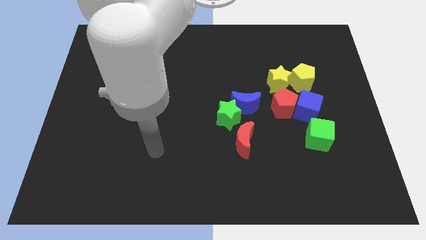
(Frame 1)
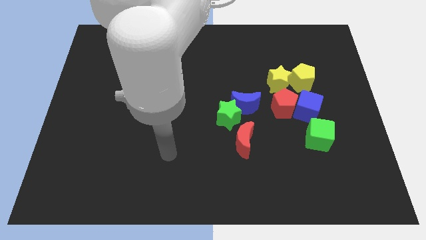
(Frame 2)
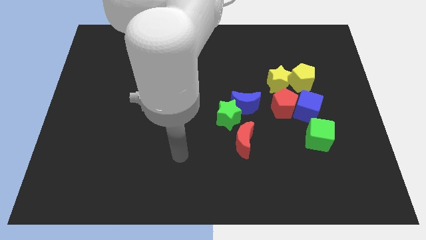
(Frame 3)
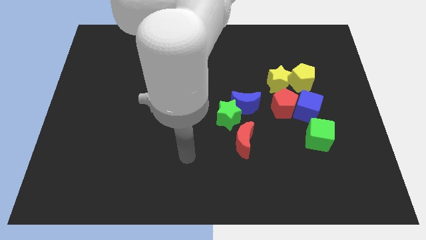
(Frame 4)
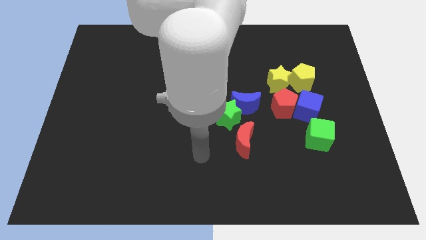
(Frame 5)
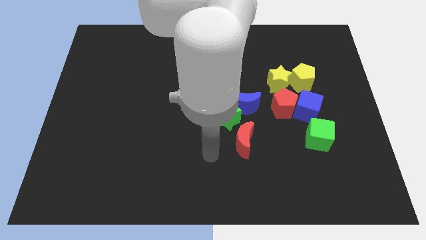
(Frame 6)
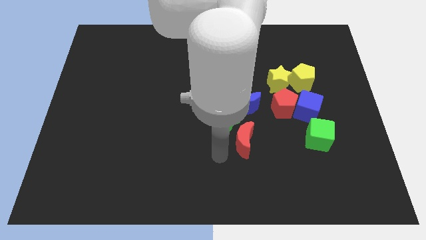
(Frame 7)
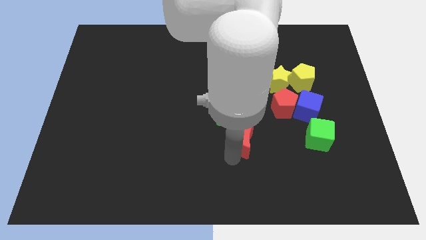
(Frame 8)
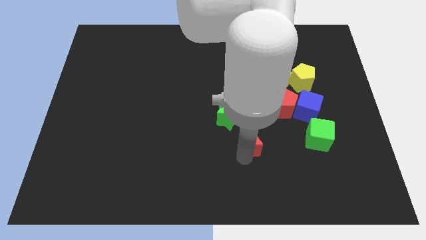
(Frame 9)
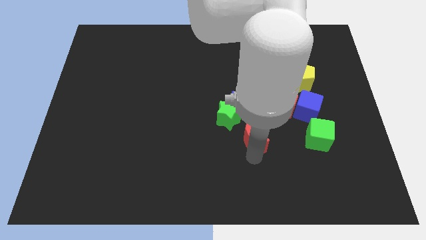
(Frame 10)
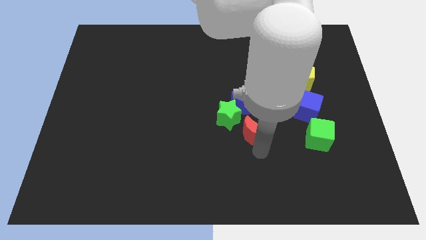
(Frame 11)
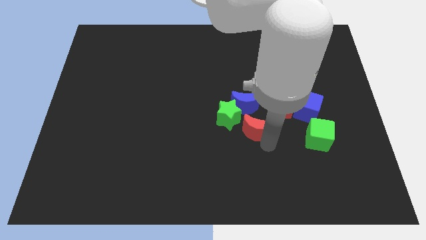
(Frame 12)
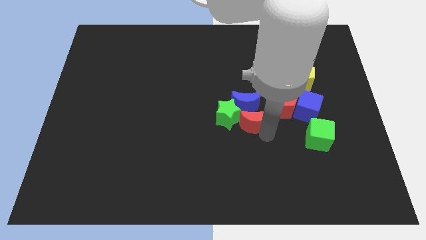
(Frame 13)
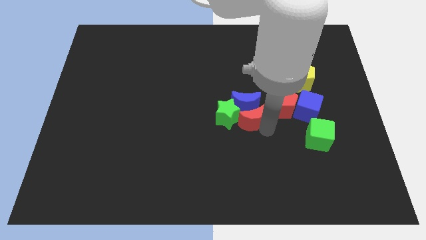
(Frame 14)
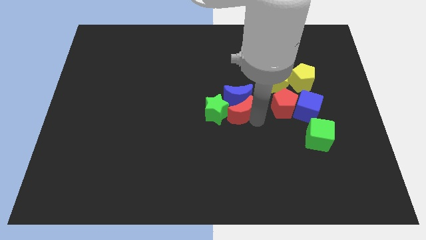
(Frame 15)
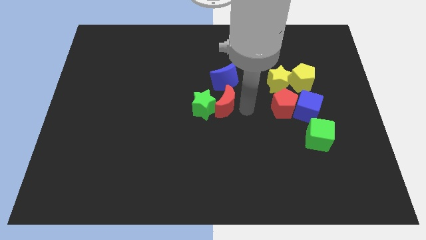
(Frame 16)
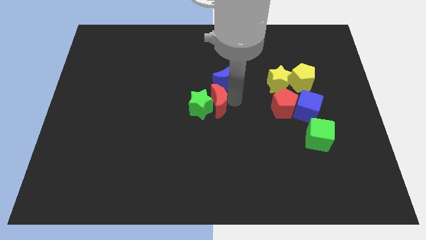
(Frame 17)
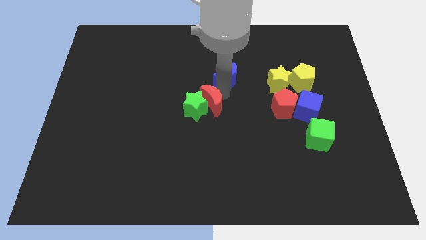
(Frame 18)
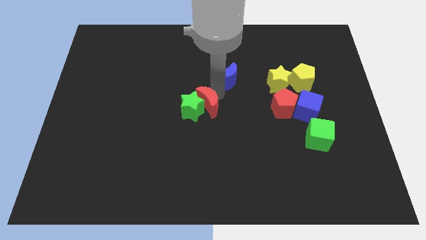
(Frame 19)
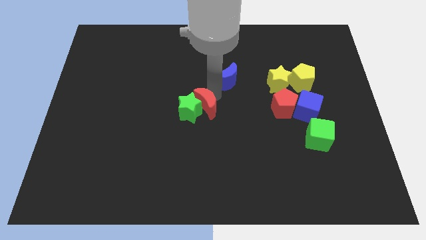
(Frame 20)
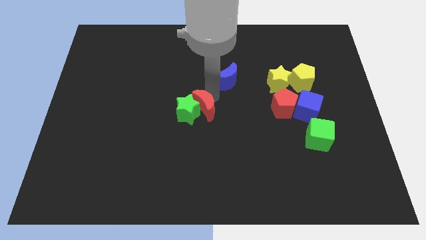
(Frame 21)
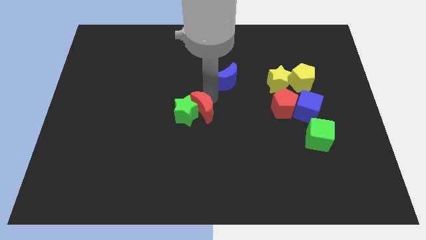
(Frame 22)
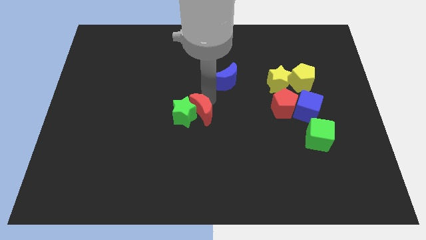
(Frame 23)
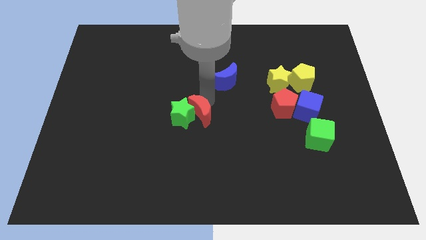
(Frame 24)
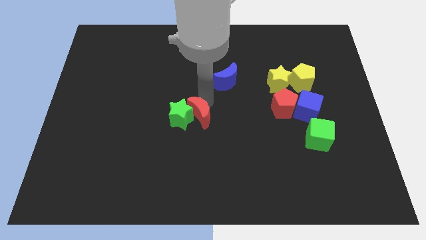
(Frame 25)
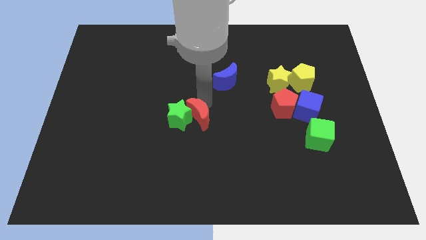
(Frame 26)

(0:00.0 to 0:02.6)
separate the green star from the blue moon and red moon

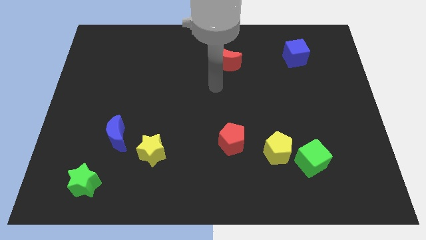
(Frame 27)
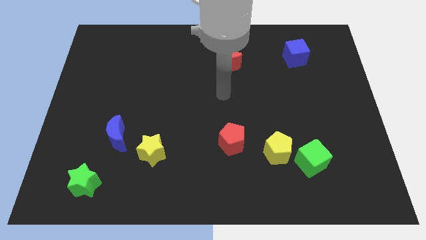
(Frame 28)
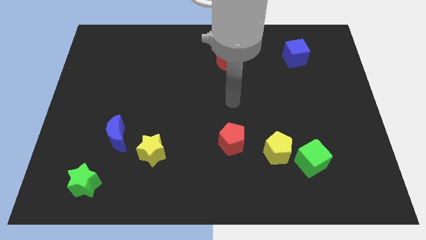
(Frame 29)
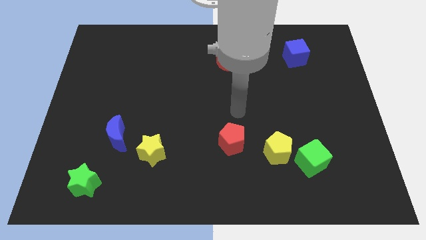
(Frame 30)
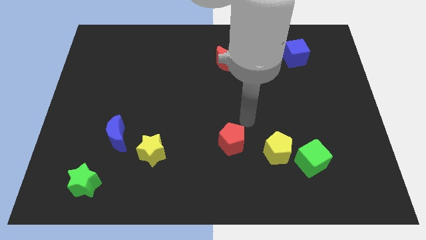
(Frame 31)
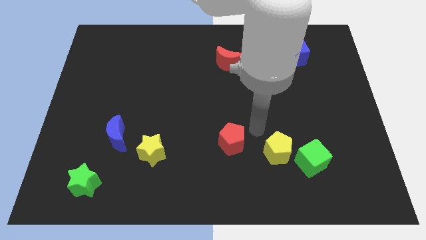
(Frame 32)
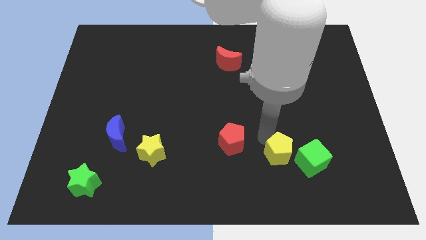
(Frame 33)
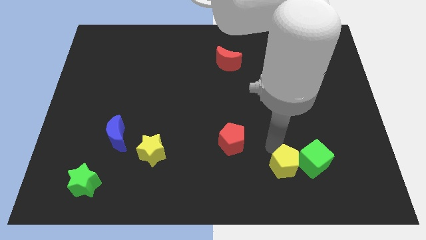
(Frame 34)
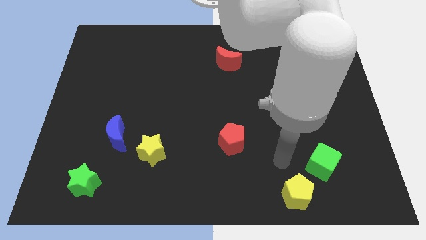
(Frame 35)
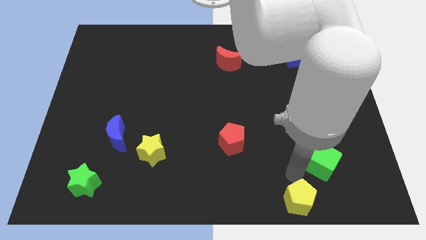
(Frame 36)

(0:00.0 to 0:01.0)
pull the green cube apart from the yellow pentagon

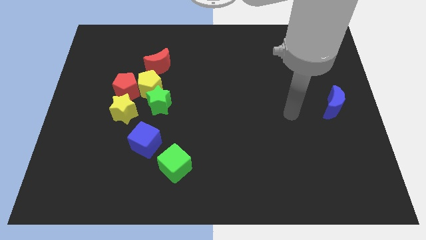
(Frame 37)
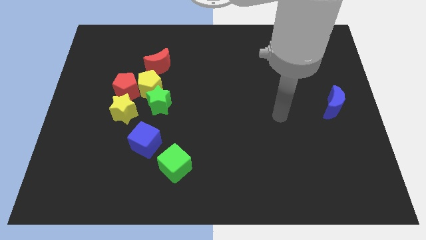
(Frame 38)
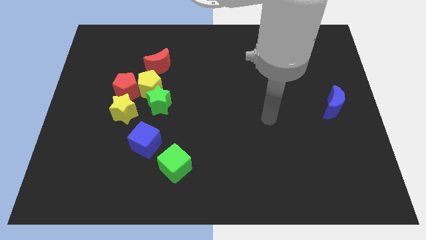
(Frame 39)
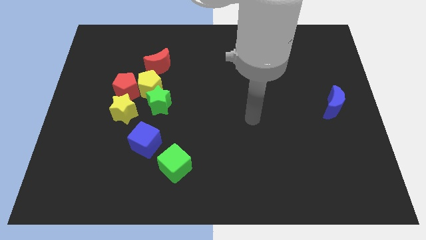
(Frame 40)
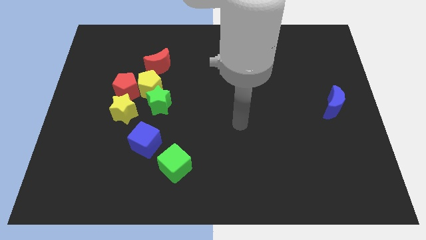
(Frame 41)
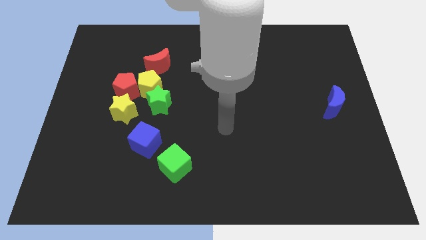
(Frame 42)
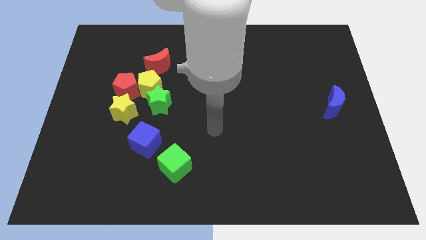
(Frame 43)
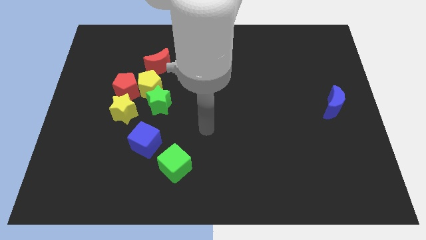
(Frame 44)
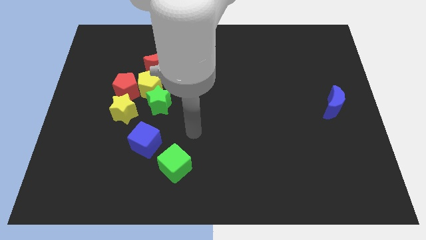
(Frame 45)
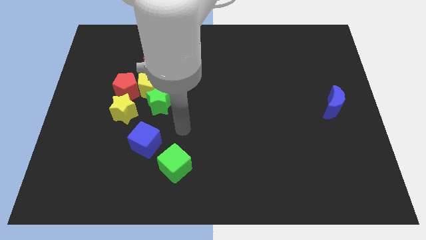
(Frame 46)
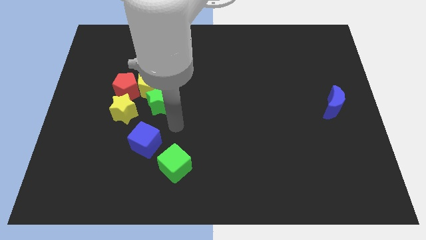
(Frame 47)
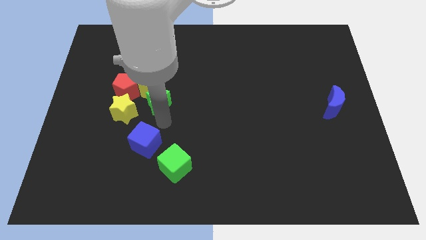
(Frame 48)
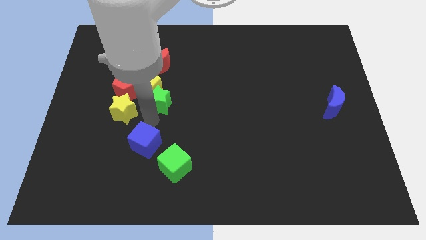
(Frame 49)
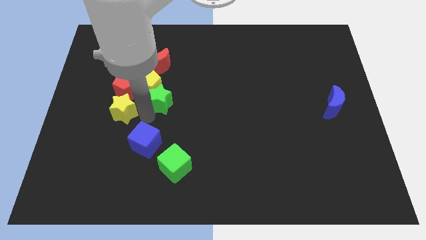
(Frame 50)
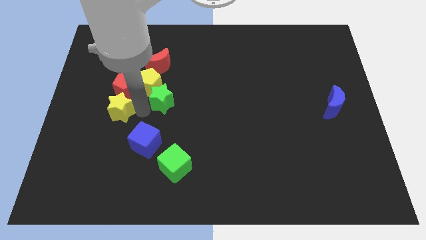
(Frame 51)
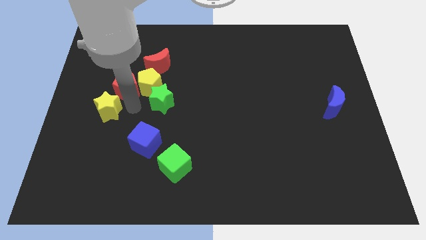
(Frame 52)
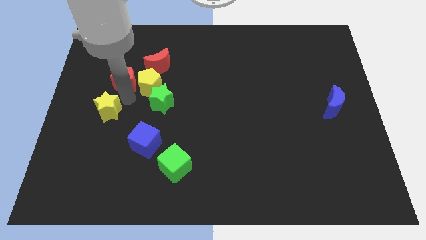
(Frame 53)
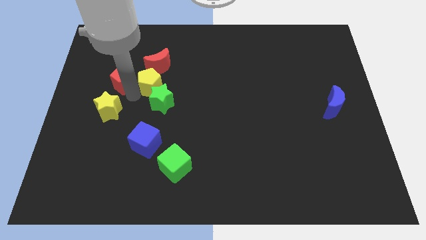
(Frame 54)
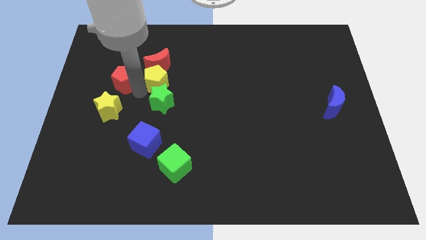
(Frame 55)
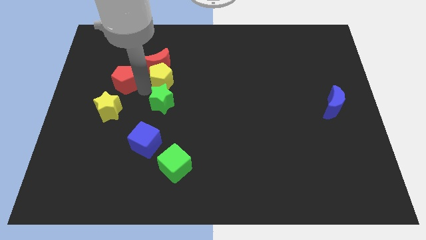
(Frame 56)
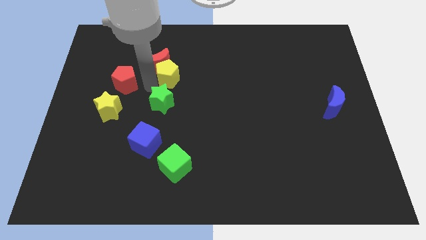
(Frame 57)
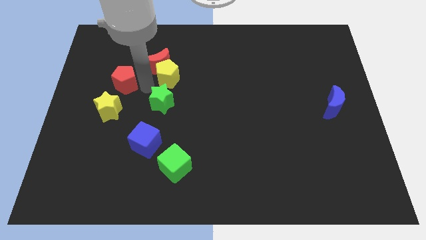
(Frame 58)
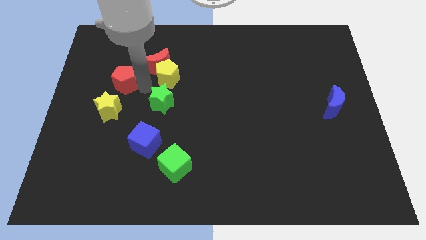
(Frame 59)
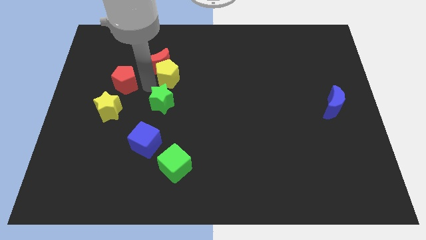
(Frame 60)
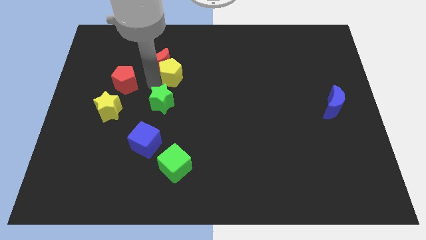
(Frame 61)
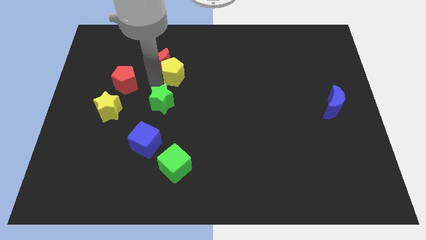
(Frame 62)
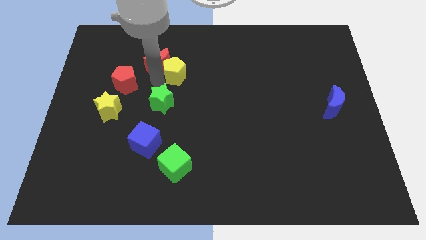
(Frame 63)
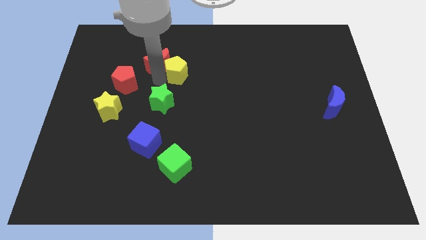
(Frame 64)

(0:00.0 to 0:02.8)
separate the yellow pentagon from the group

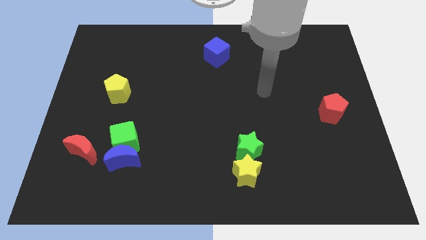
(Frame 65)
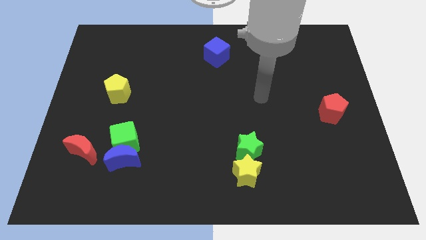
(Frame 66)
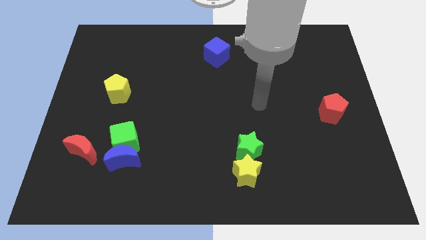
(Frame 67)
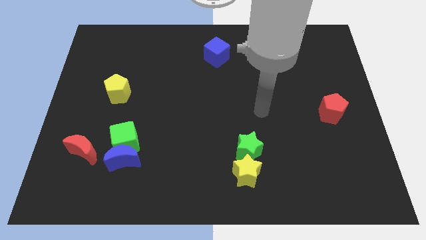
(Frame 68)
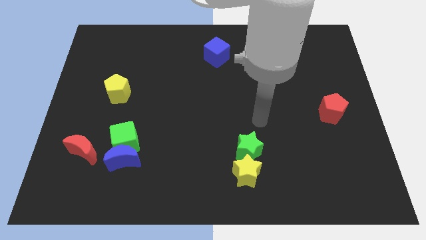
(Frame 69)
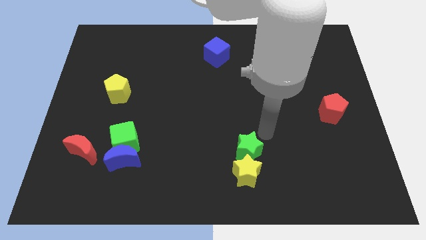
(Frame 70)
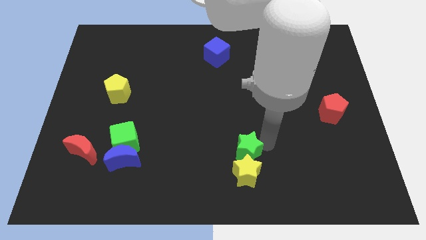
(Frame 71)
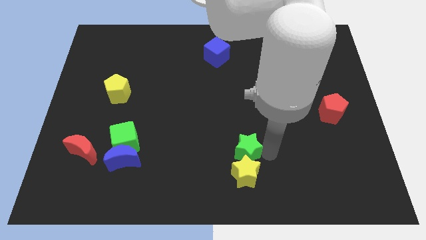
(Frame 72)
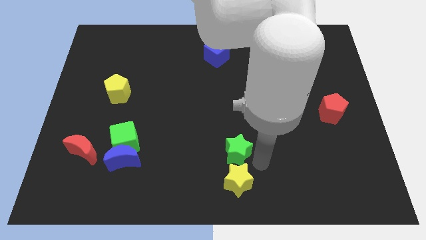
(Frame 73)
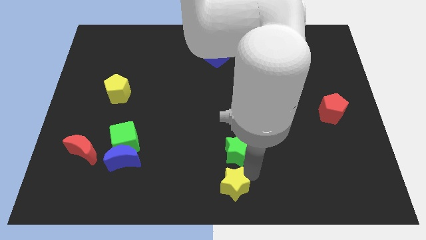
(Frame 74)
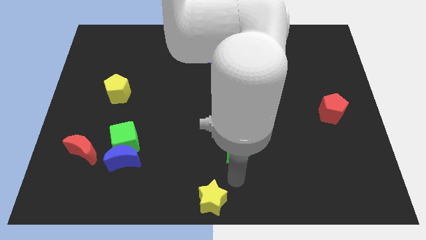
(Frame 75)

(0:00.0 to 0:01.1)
move the green star away from the yellow star

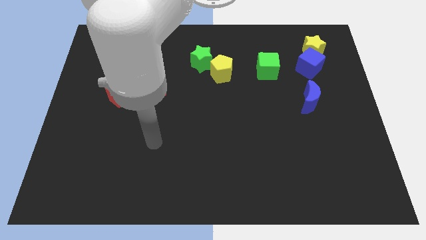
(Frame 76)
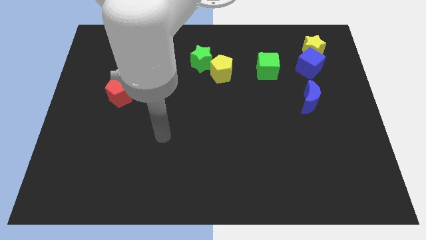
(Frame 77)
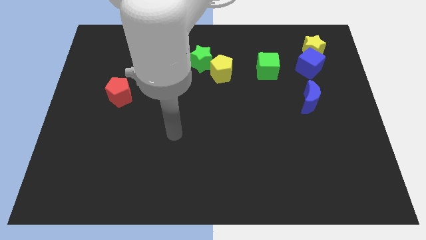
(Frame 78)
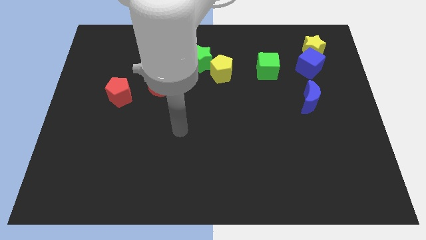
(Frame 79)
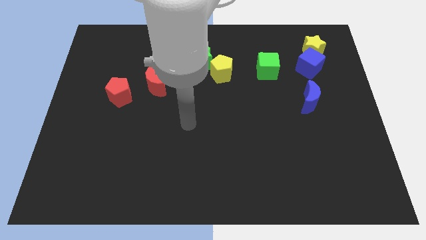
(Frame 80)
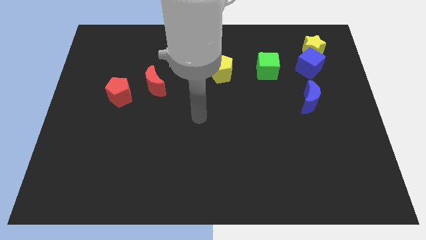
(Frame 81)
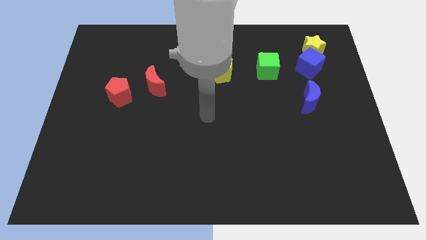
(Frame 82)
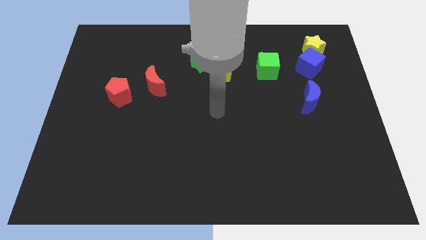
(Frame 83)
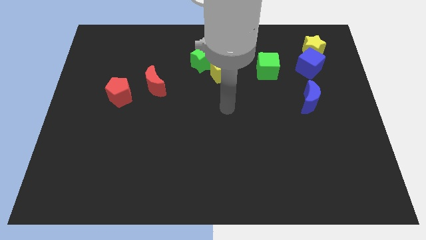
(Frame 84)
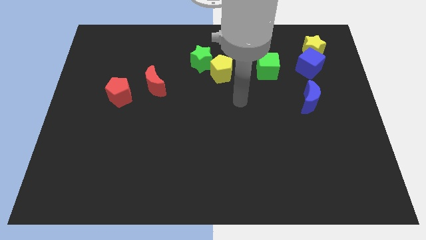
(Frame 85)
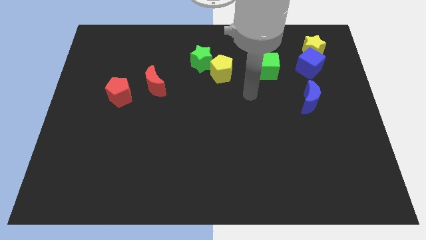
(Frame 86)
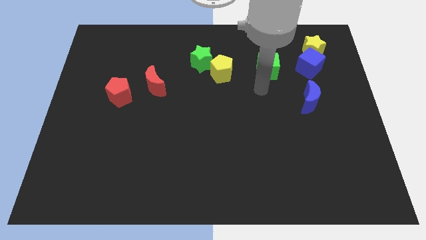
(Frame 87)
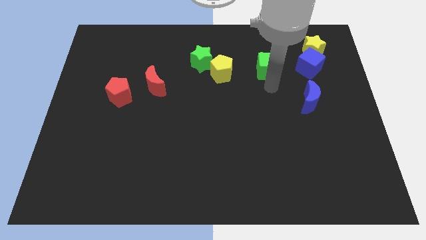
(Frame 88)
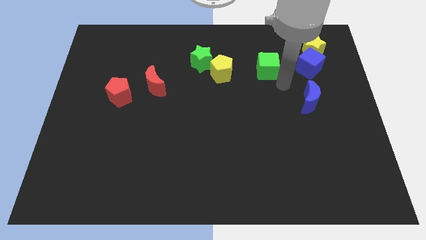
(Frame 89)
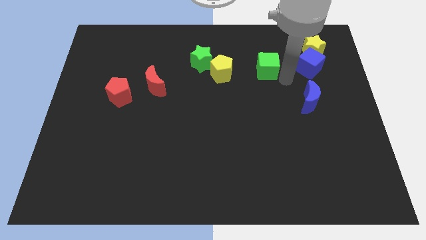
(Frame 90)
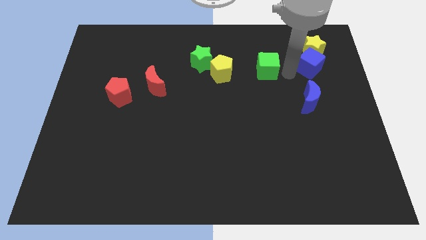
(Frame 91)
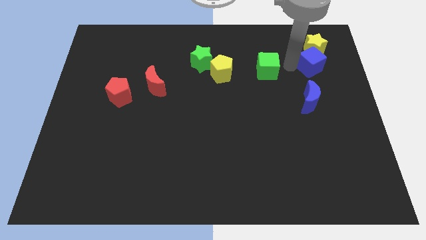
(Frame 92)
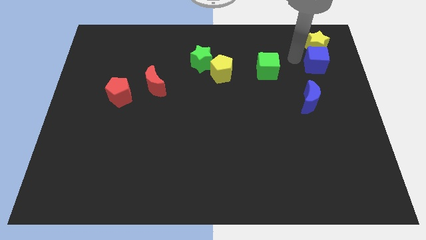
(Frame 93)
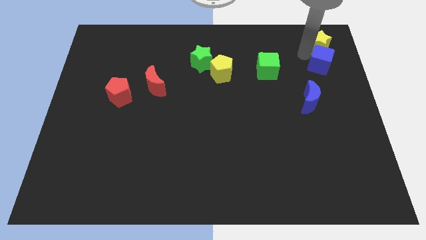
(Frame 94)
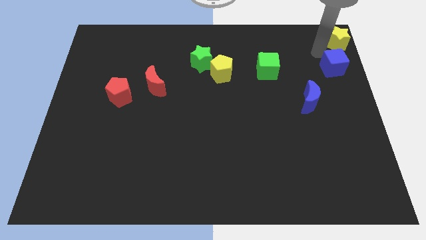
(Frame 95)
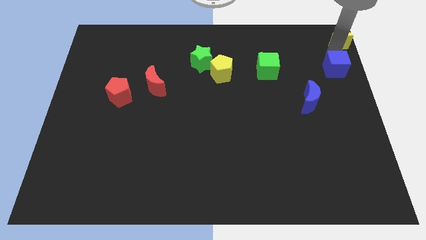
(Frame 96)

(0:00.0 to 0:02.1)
separate the blue cube from the yellow star
